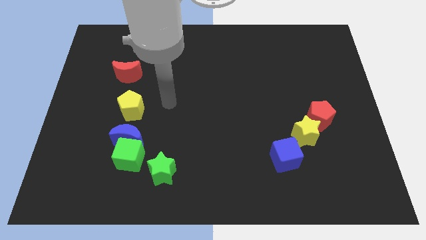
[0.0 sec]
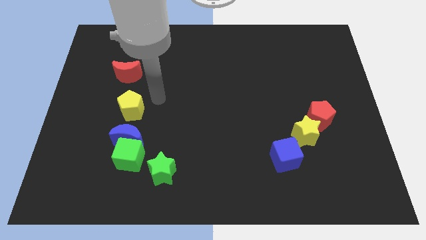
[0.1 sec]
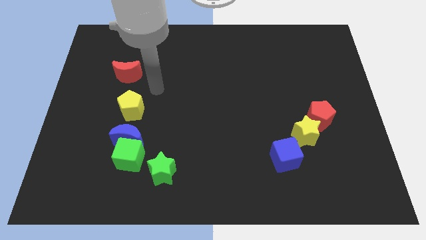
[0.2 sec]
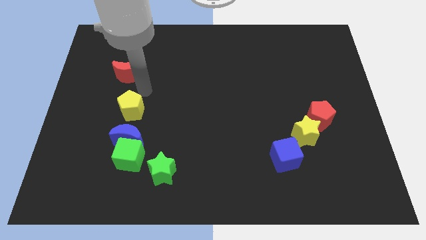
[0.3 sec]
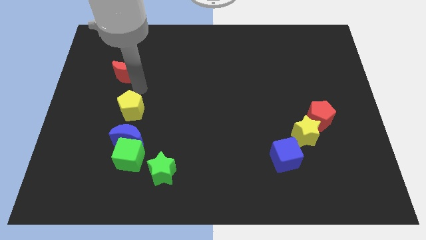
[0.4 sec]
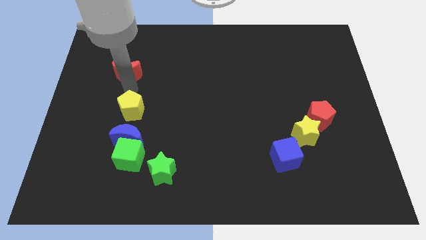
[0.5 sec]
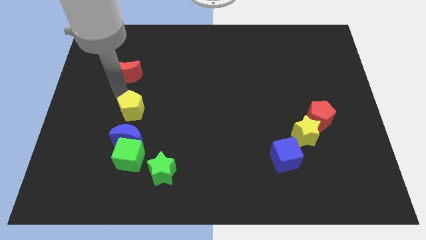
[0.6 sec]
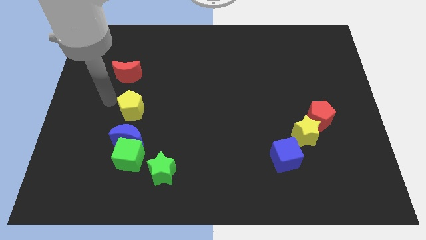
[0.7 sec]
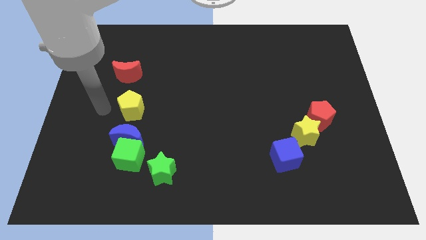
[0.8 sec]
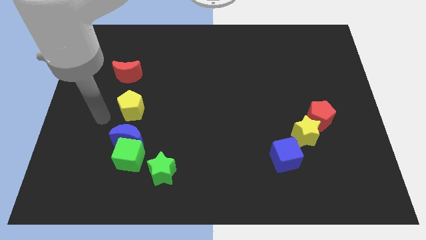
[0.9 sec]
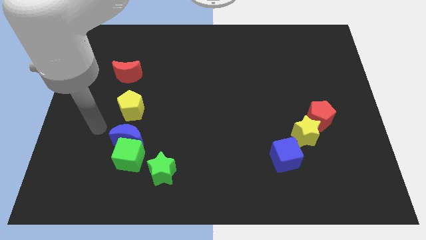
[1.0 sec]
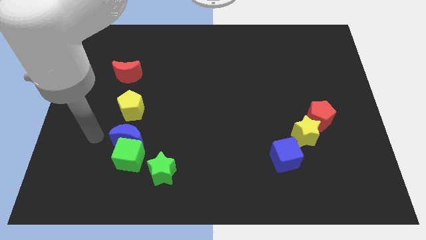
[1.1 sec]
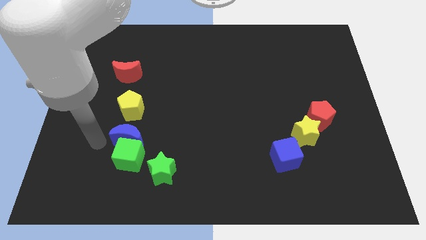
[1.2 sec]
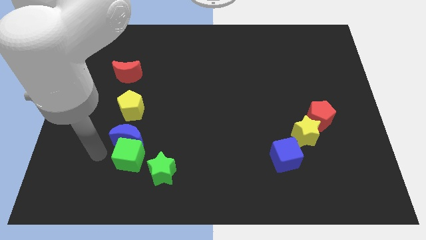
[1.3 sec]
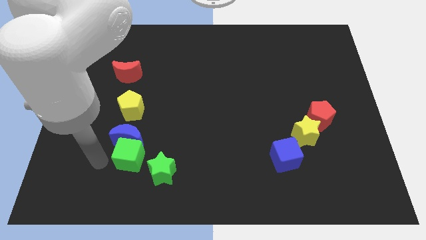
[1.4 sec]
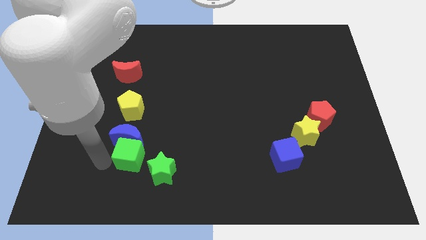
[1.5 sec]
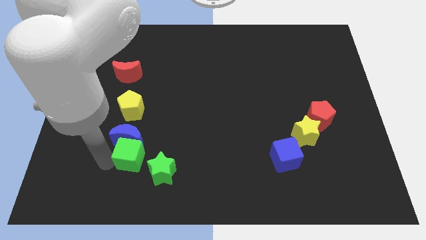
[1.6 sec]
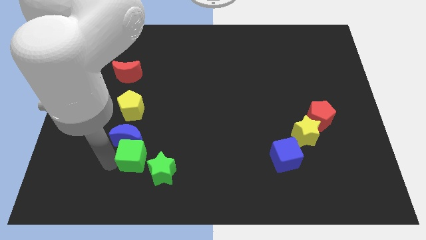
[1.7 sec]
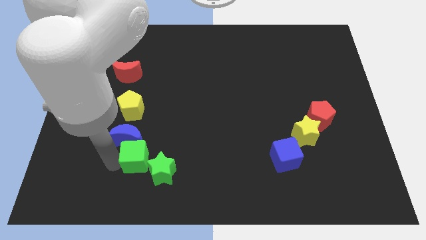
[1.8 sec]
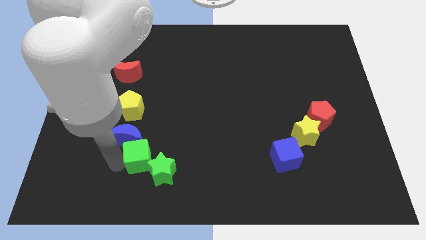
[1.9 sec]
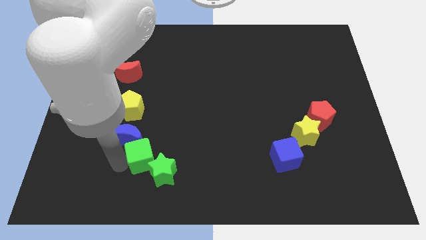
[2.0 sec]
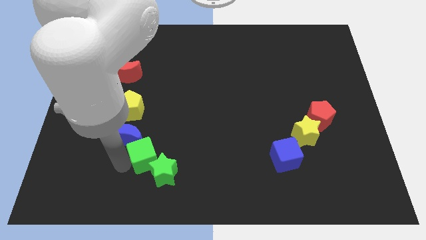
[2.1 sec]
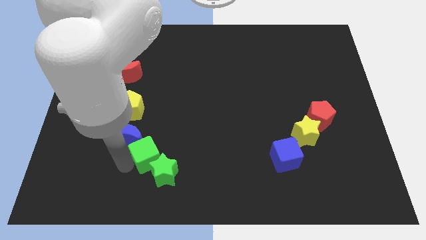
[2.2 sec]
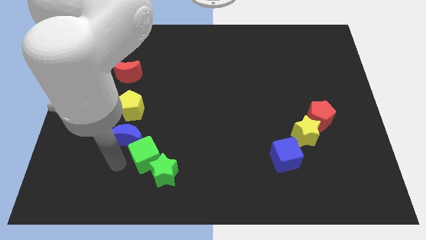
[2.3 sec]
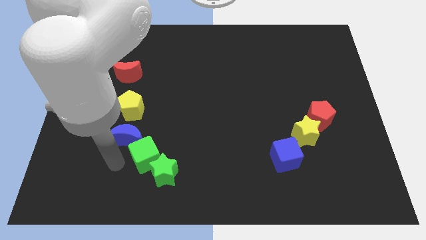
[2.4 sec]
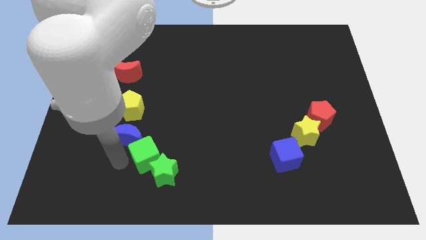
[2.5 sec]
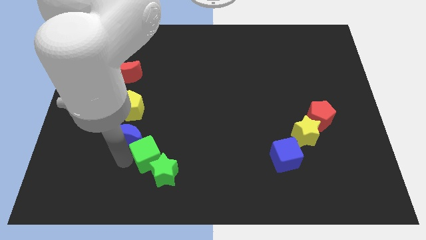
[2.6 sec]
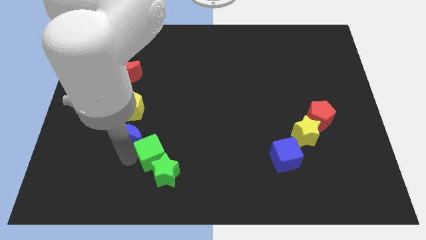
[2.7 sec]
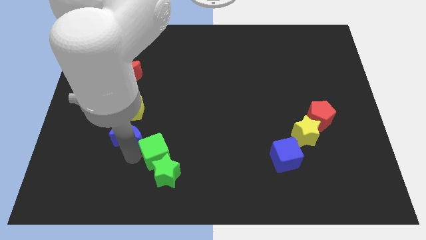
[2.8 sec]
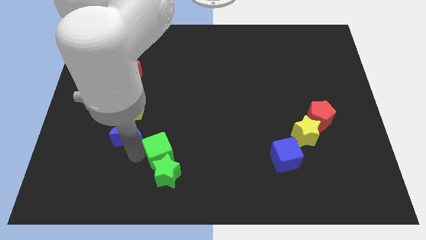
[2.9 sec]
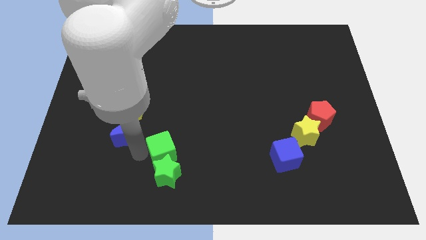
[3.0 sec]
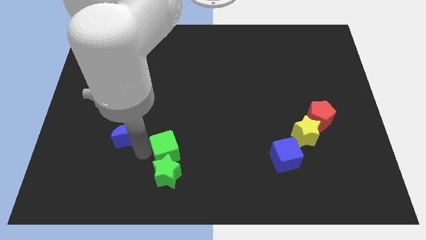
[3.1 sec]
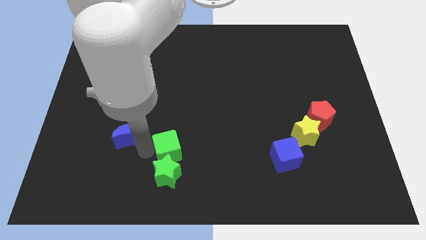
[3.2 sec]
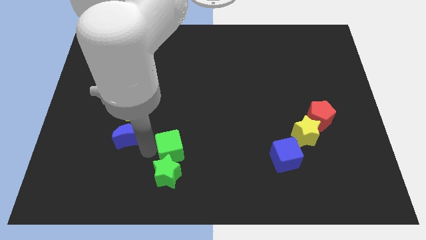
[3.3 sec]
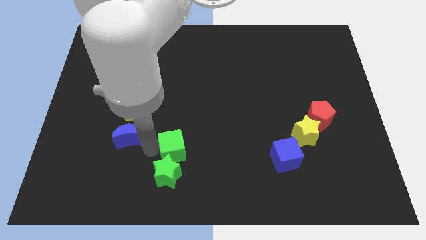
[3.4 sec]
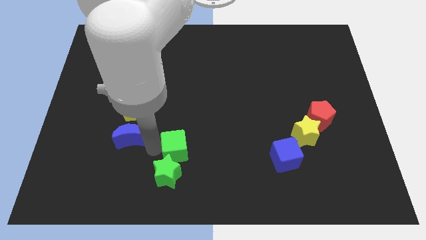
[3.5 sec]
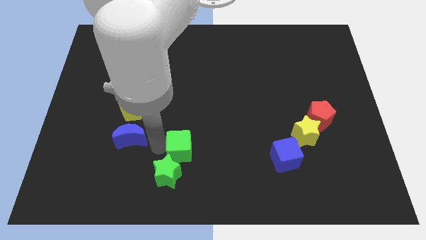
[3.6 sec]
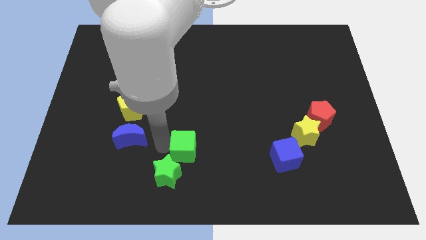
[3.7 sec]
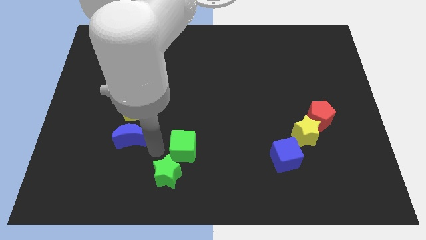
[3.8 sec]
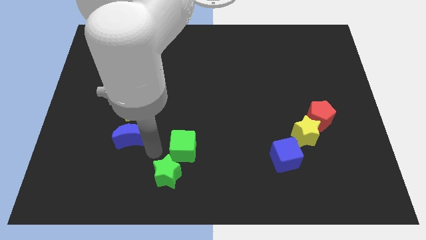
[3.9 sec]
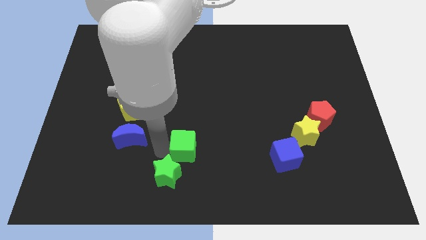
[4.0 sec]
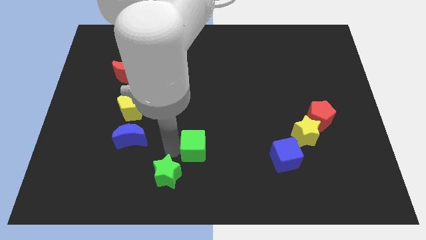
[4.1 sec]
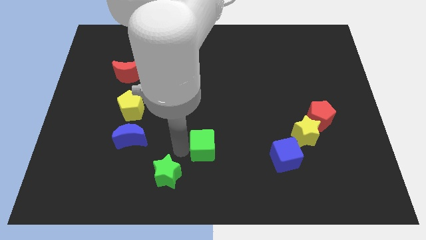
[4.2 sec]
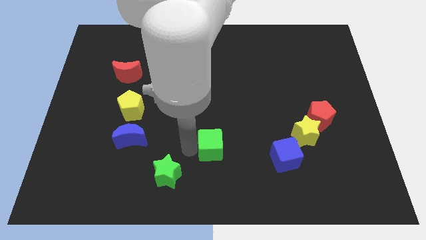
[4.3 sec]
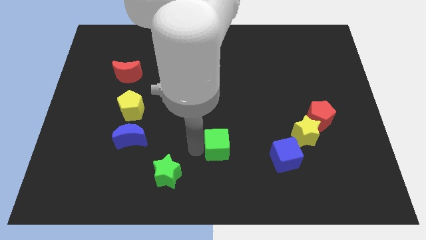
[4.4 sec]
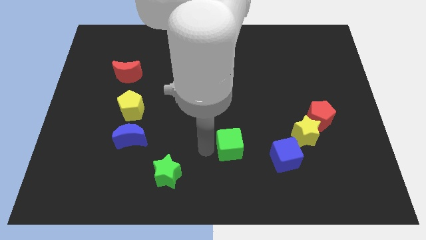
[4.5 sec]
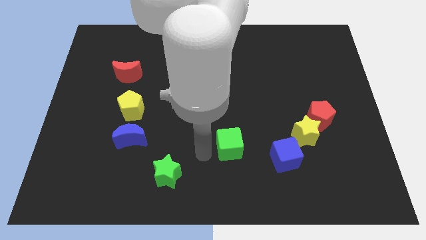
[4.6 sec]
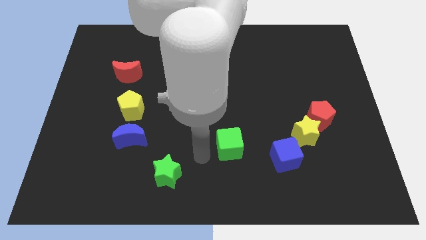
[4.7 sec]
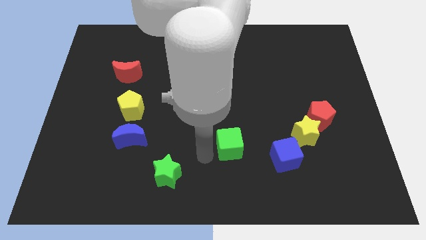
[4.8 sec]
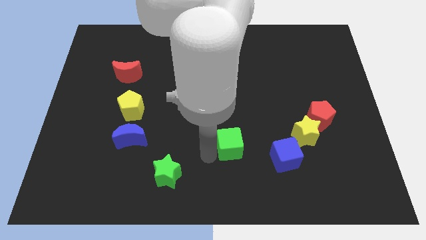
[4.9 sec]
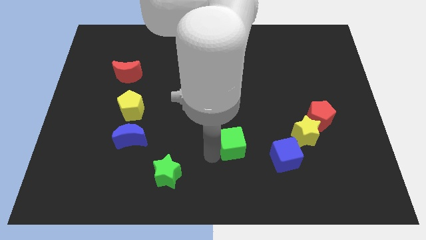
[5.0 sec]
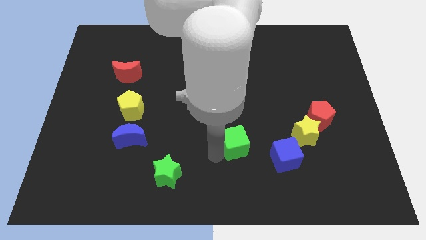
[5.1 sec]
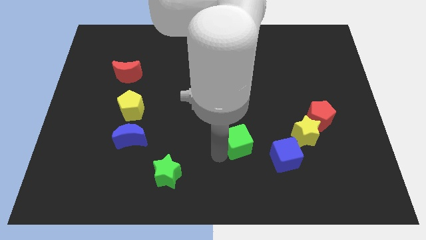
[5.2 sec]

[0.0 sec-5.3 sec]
move the green cube diagonally up and to the left of the blue cube

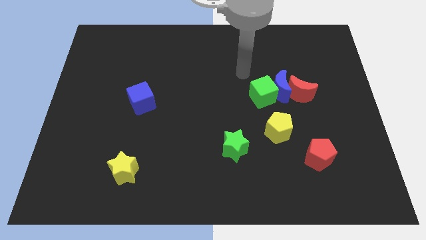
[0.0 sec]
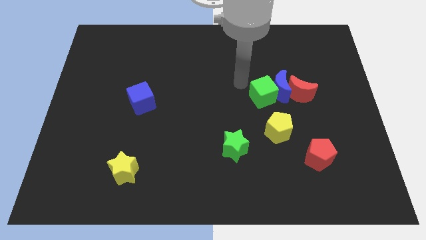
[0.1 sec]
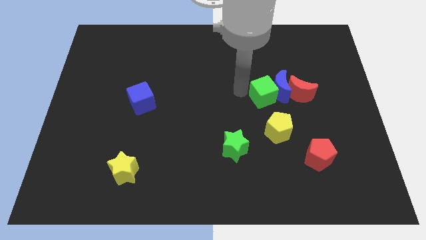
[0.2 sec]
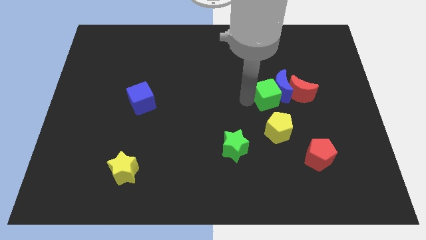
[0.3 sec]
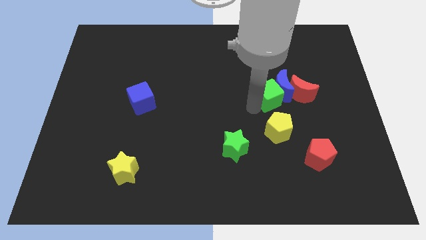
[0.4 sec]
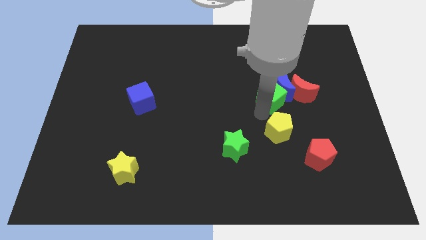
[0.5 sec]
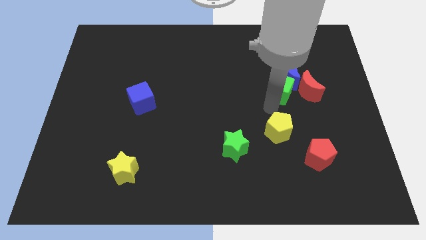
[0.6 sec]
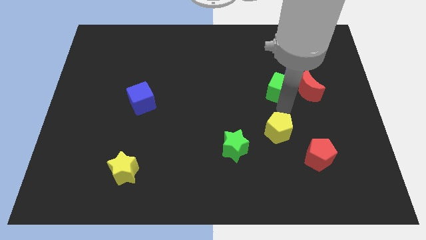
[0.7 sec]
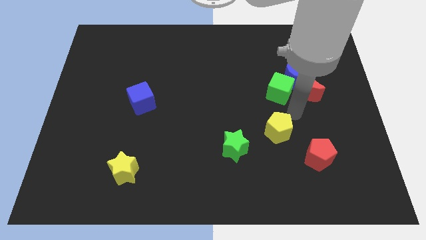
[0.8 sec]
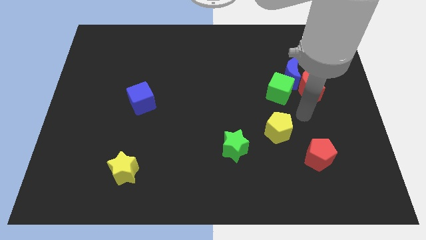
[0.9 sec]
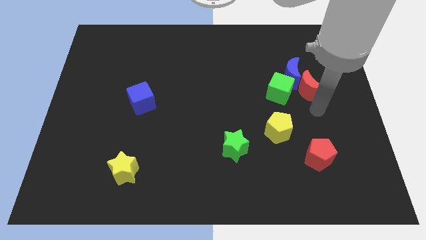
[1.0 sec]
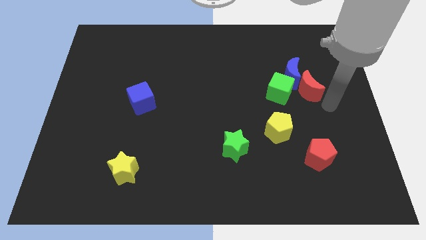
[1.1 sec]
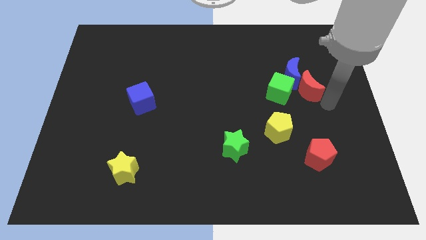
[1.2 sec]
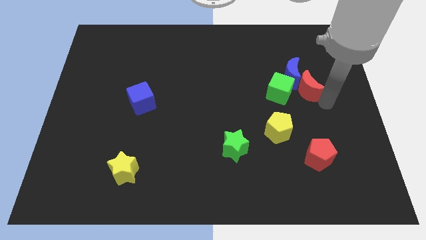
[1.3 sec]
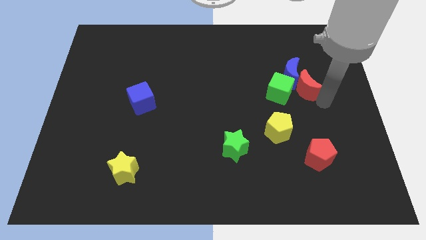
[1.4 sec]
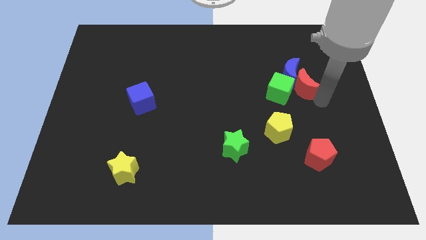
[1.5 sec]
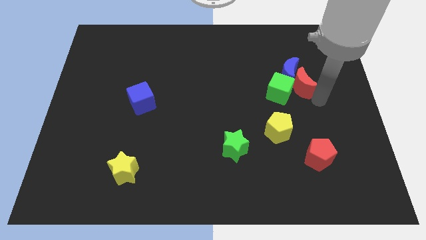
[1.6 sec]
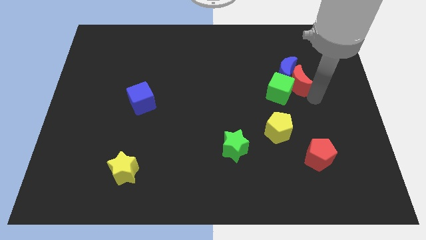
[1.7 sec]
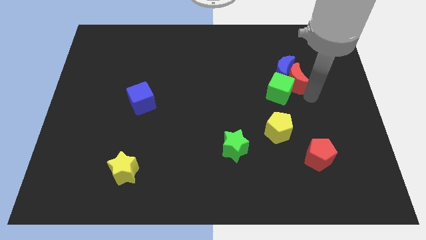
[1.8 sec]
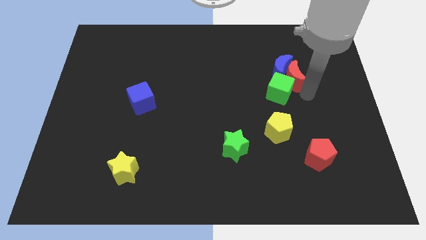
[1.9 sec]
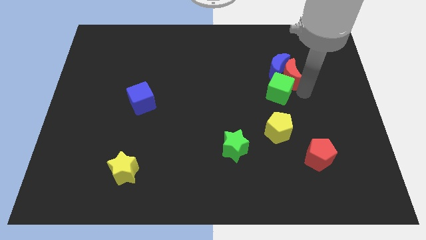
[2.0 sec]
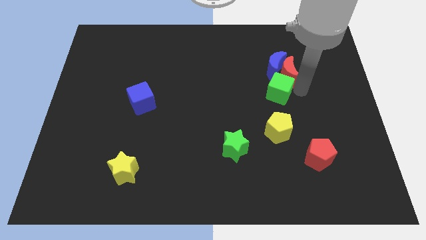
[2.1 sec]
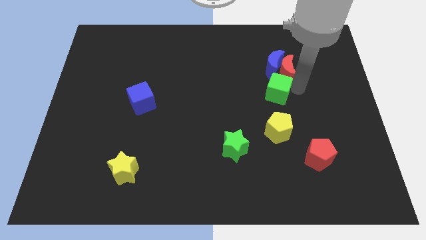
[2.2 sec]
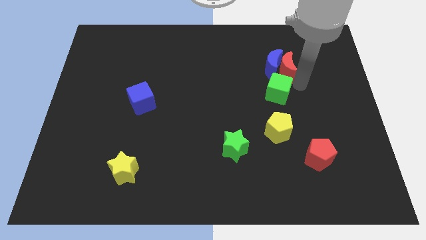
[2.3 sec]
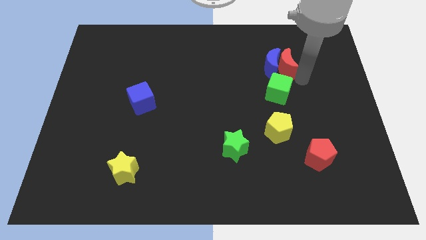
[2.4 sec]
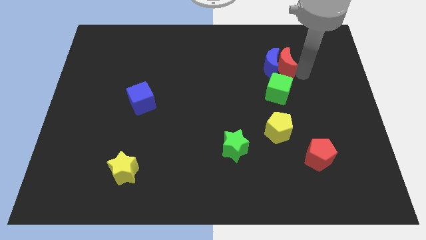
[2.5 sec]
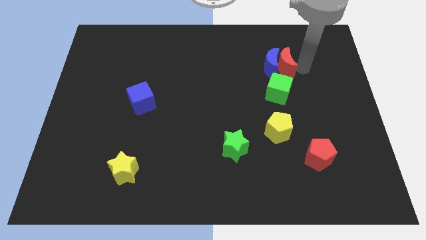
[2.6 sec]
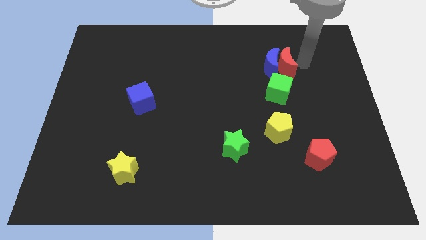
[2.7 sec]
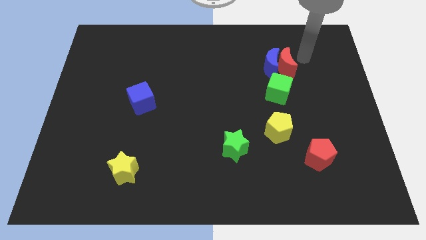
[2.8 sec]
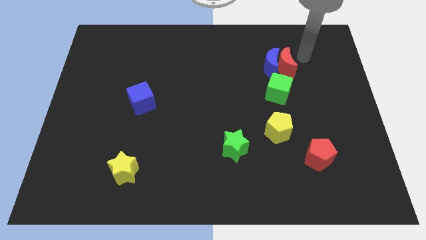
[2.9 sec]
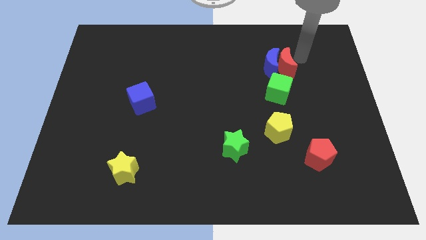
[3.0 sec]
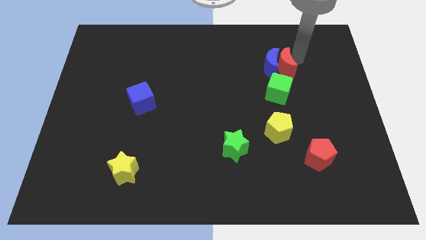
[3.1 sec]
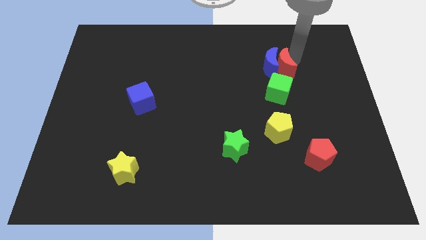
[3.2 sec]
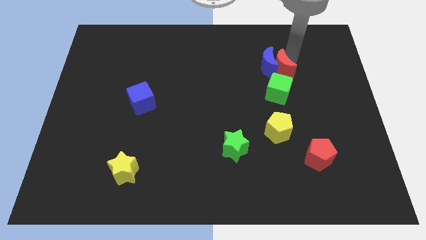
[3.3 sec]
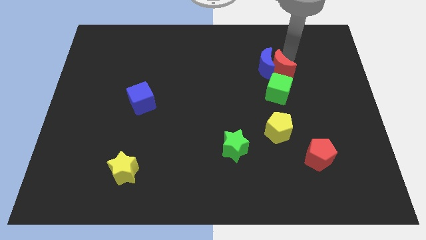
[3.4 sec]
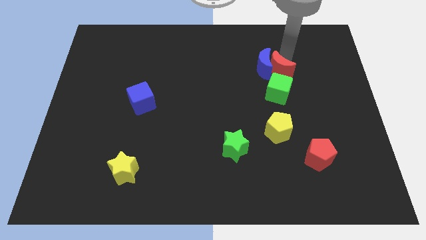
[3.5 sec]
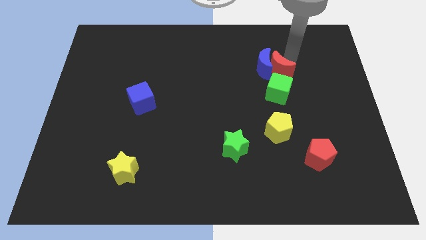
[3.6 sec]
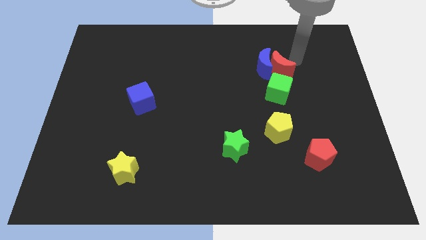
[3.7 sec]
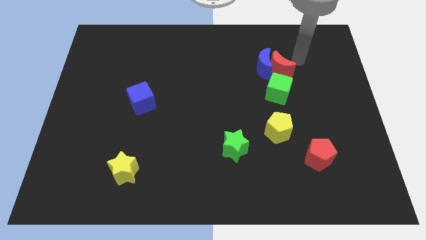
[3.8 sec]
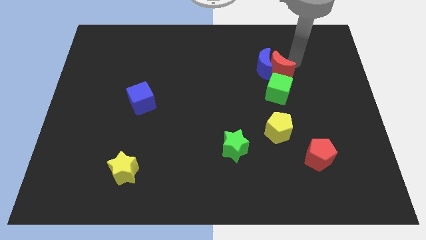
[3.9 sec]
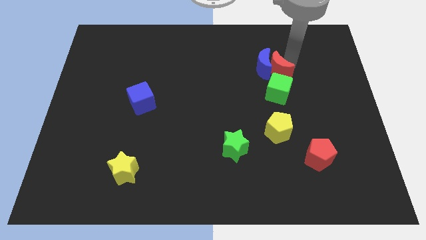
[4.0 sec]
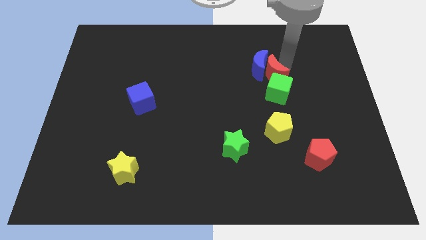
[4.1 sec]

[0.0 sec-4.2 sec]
put the red moon to the top left of the green cube
